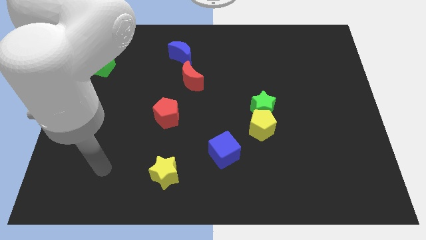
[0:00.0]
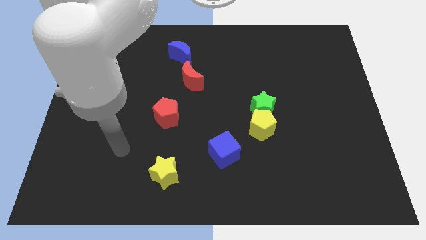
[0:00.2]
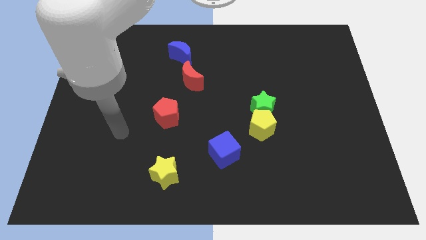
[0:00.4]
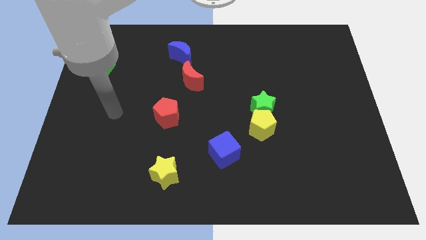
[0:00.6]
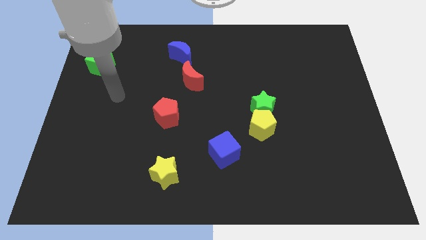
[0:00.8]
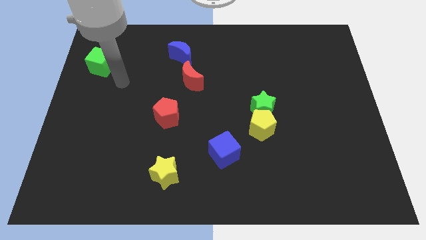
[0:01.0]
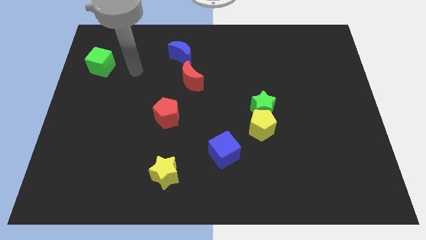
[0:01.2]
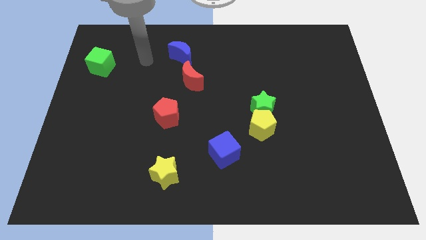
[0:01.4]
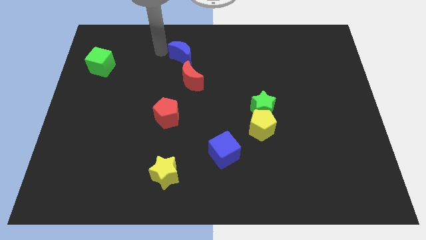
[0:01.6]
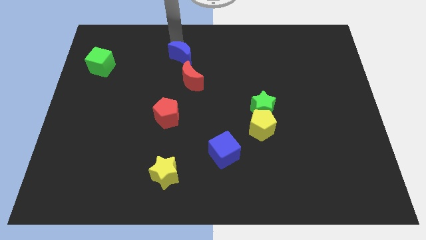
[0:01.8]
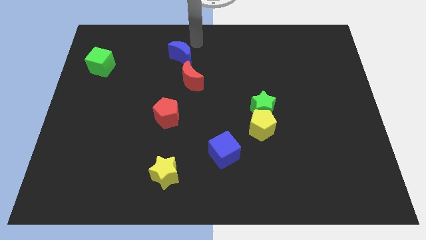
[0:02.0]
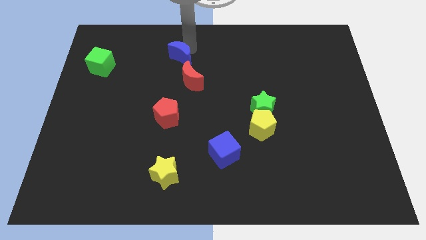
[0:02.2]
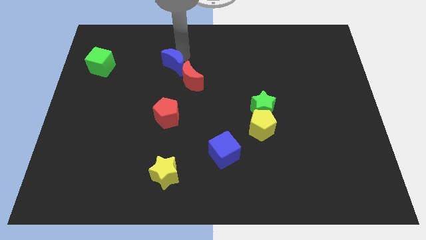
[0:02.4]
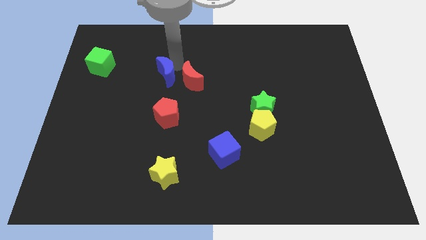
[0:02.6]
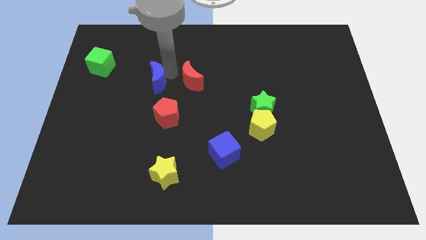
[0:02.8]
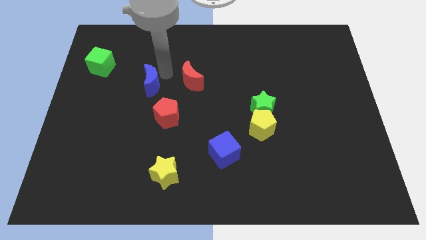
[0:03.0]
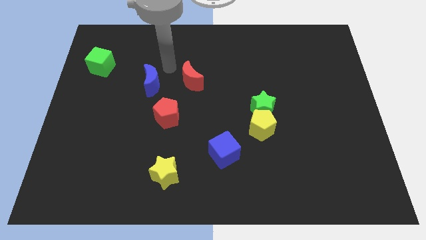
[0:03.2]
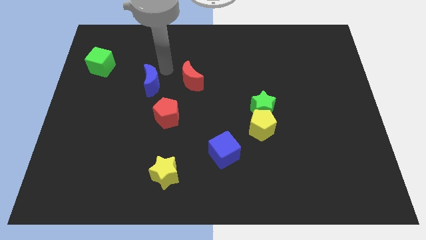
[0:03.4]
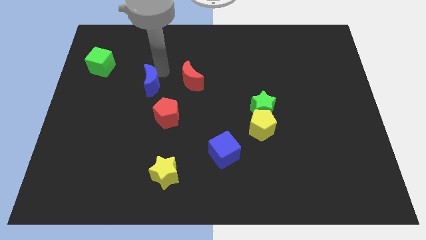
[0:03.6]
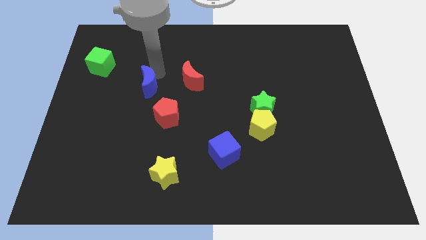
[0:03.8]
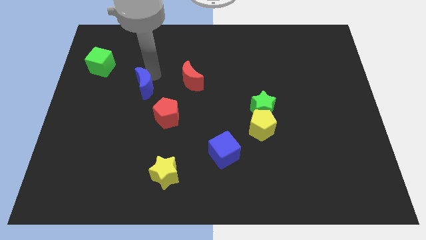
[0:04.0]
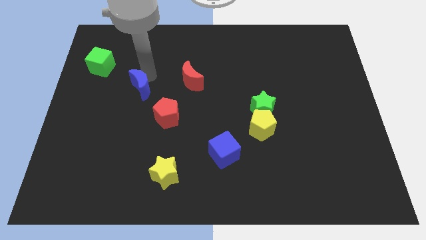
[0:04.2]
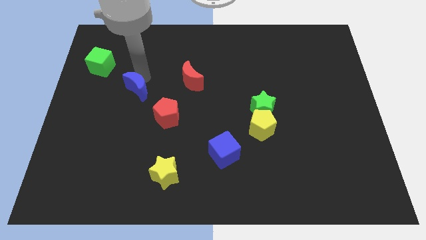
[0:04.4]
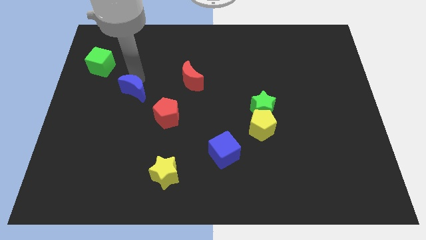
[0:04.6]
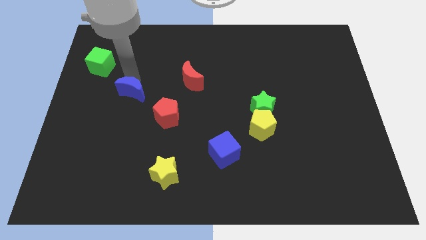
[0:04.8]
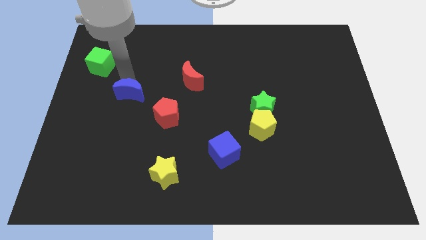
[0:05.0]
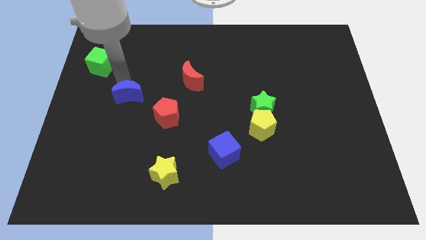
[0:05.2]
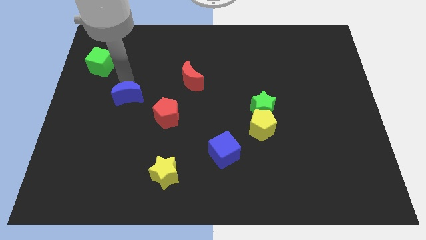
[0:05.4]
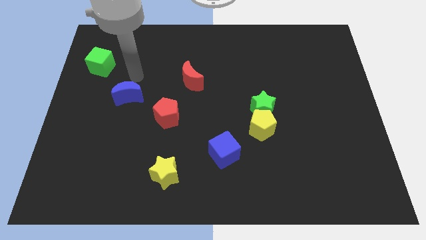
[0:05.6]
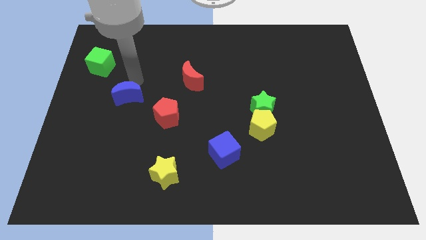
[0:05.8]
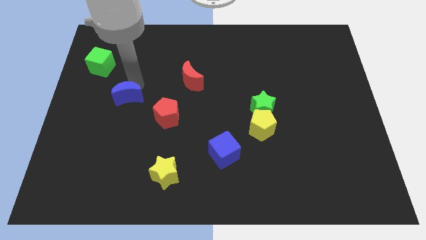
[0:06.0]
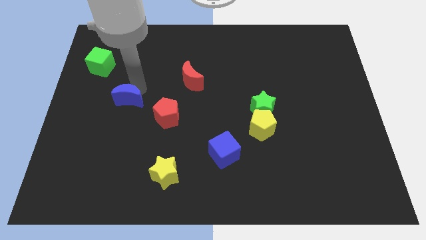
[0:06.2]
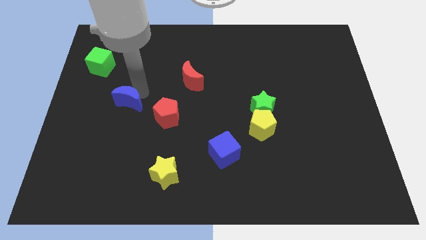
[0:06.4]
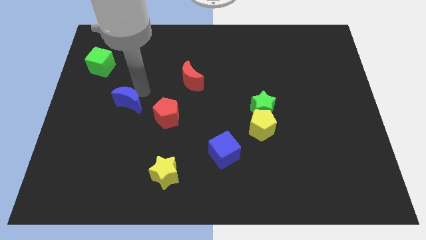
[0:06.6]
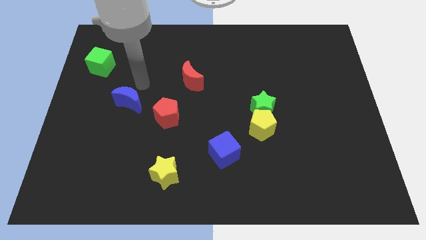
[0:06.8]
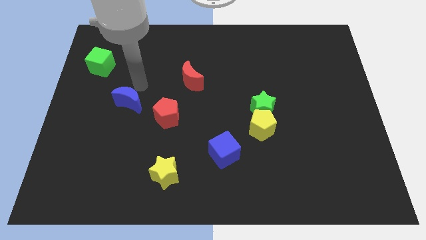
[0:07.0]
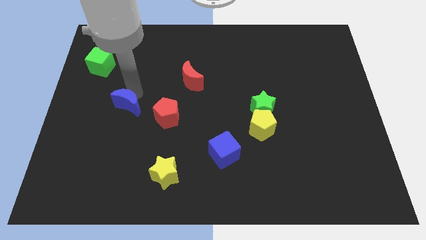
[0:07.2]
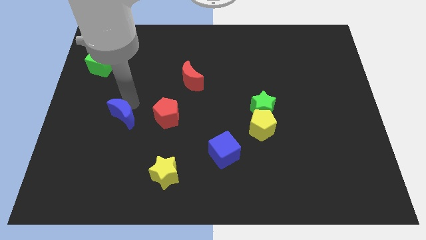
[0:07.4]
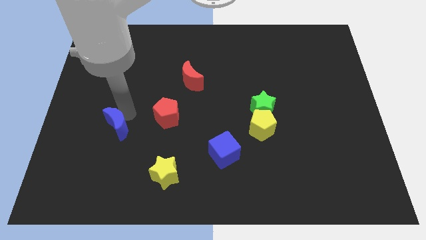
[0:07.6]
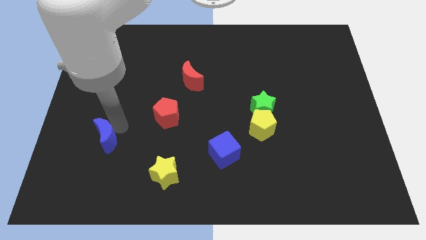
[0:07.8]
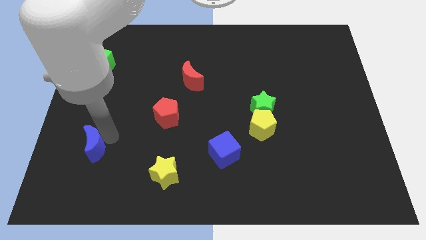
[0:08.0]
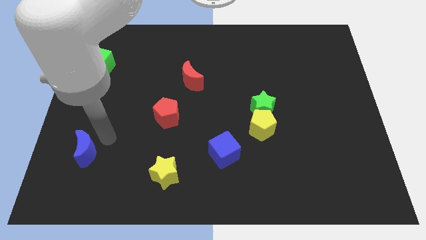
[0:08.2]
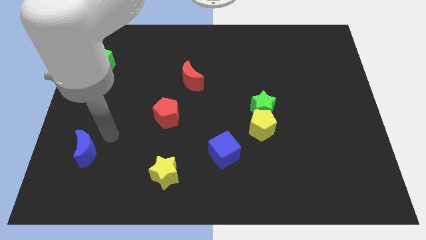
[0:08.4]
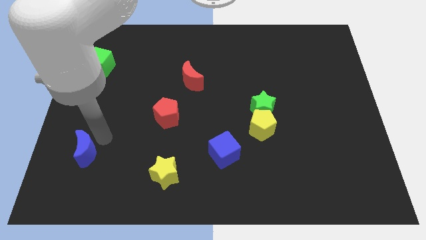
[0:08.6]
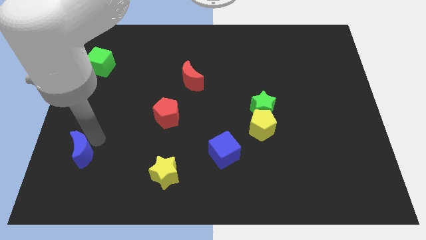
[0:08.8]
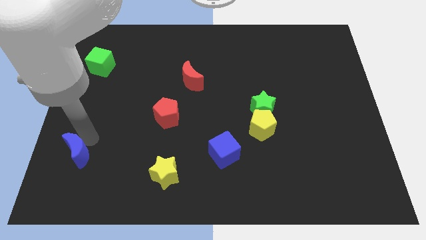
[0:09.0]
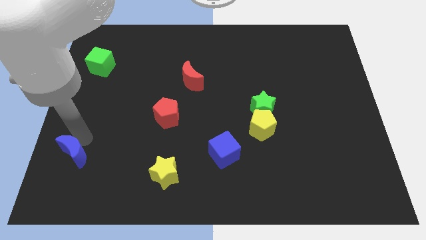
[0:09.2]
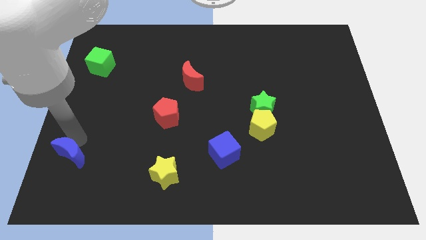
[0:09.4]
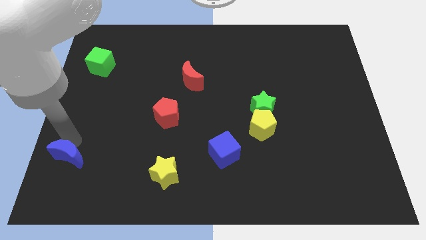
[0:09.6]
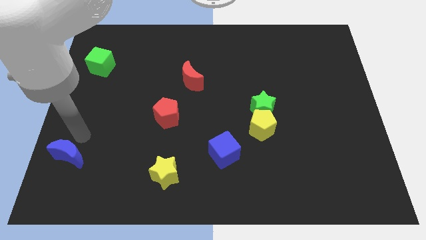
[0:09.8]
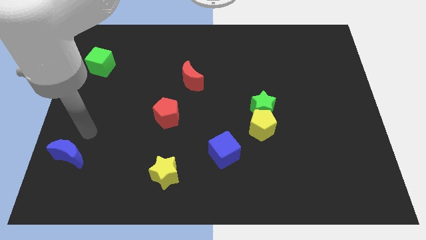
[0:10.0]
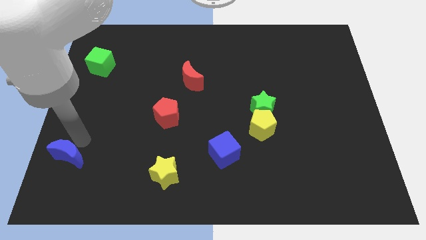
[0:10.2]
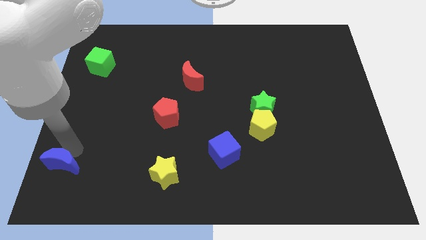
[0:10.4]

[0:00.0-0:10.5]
put the blue moon to the bottom left

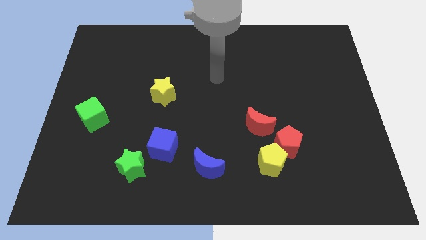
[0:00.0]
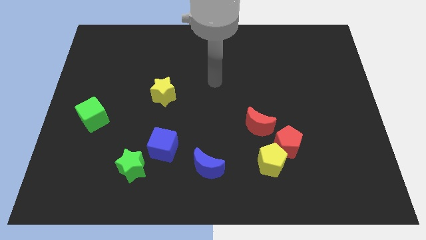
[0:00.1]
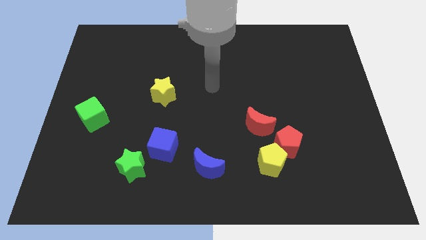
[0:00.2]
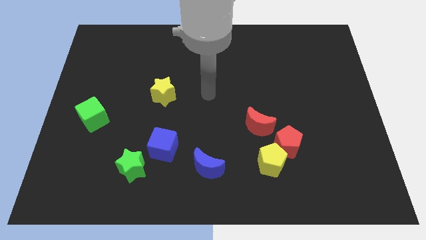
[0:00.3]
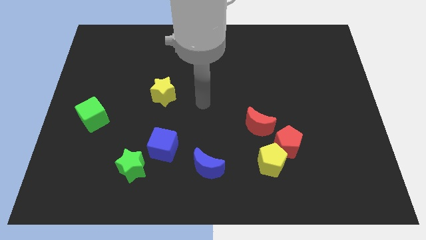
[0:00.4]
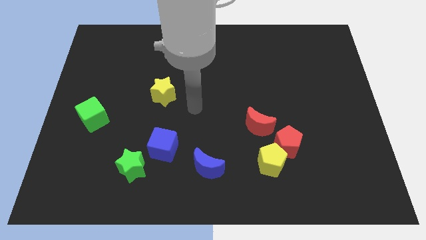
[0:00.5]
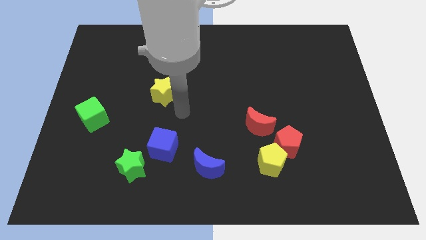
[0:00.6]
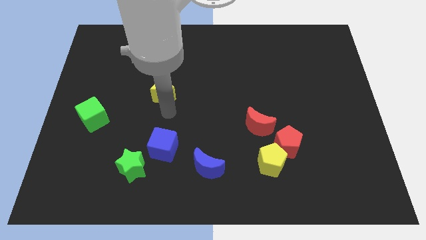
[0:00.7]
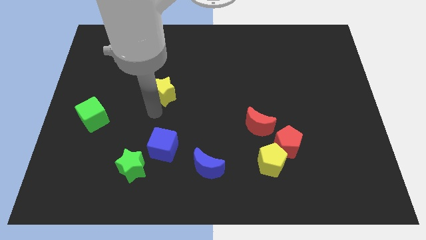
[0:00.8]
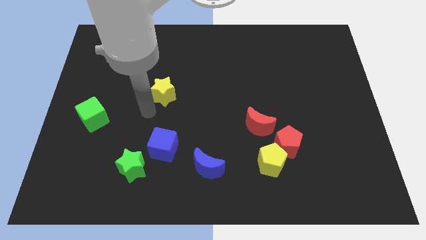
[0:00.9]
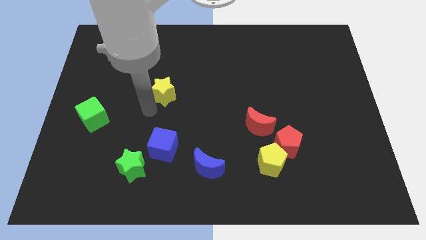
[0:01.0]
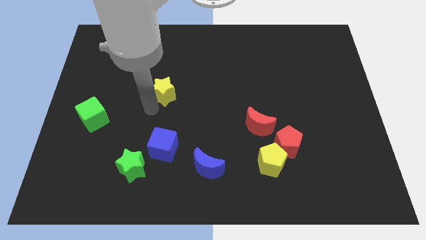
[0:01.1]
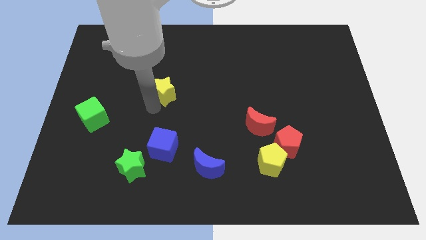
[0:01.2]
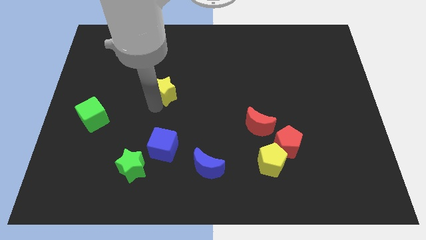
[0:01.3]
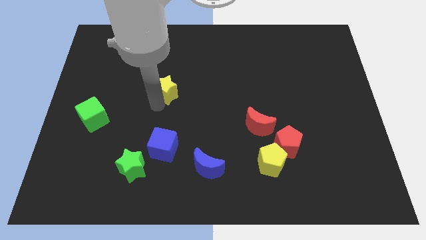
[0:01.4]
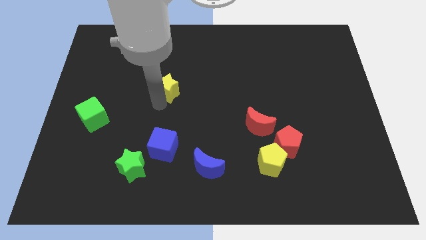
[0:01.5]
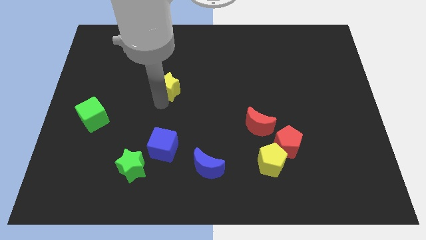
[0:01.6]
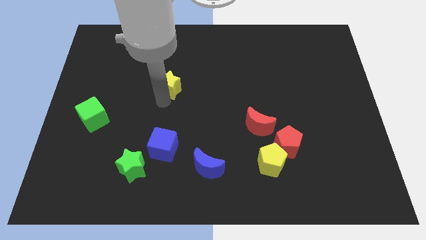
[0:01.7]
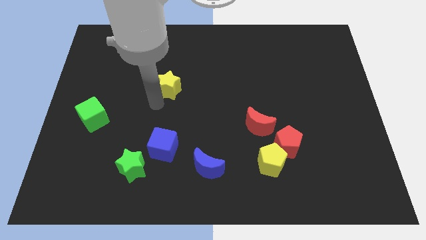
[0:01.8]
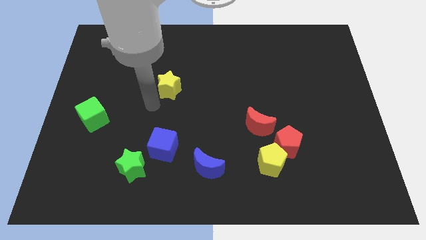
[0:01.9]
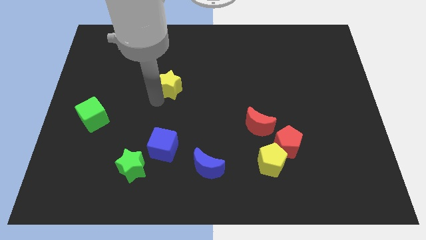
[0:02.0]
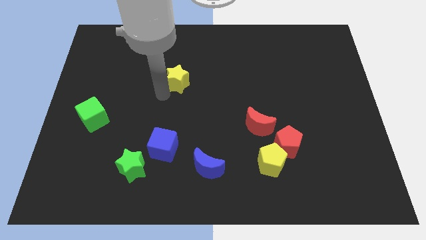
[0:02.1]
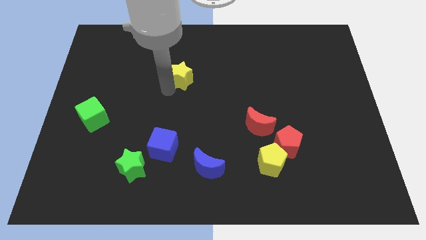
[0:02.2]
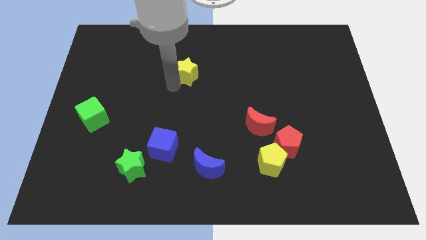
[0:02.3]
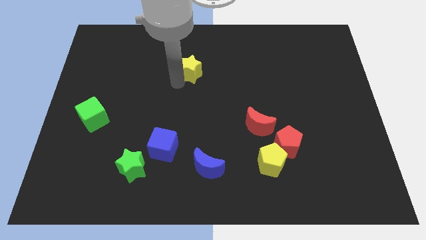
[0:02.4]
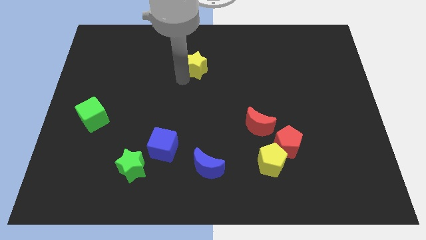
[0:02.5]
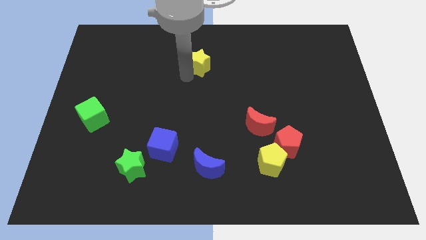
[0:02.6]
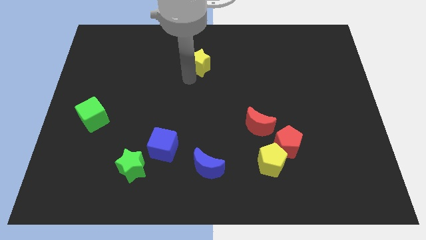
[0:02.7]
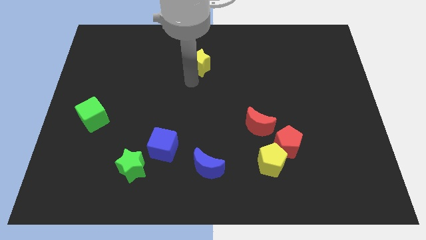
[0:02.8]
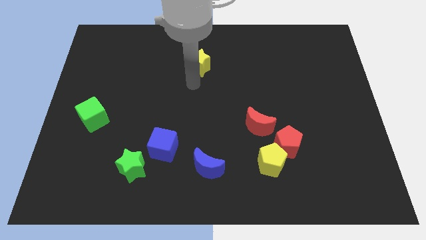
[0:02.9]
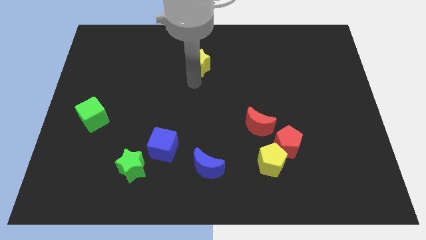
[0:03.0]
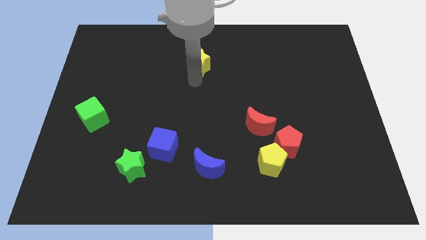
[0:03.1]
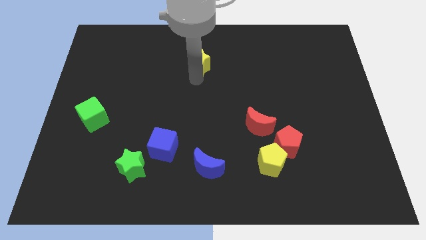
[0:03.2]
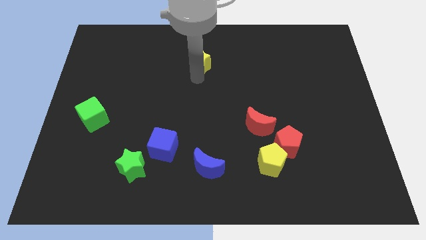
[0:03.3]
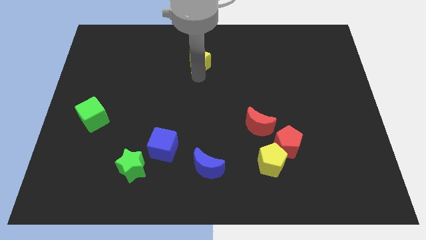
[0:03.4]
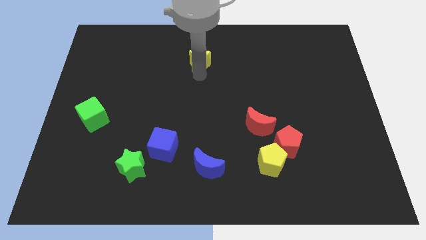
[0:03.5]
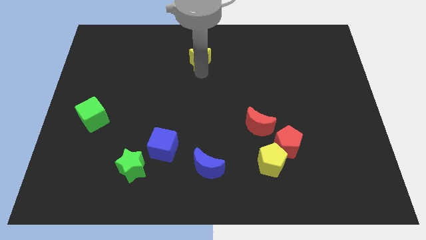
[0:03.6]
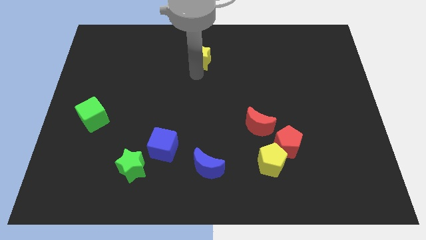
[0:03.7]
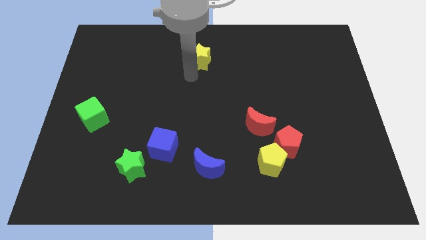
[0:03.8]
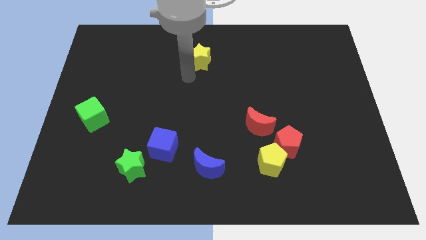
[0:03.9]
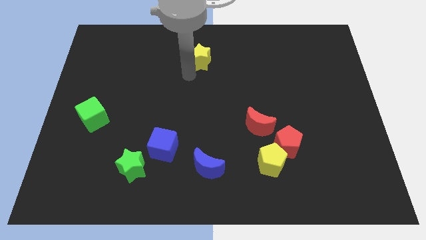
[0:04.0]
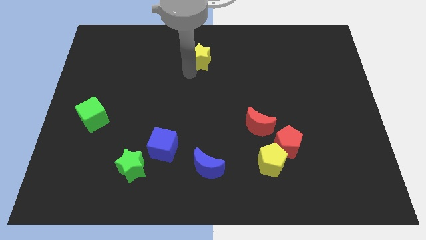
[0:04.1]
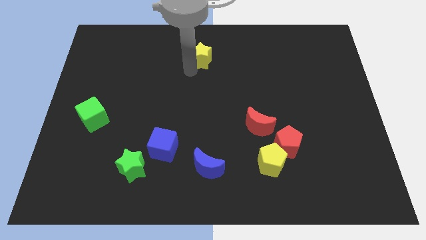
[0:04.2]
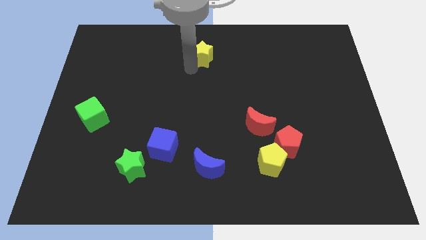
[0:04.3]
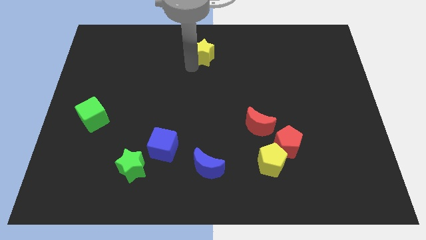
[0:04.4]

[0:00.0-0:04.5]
slide the yellow star to the top
